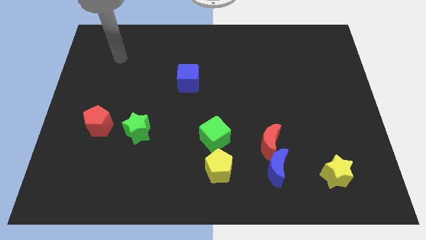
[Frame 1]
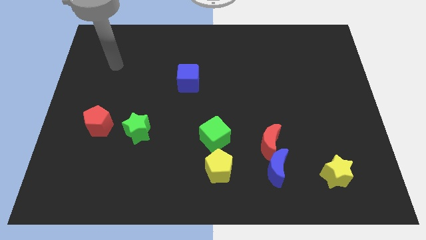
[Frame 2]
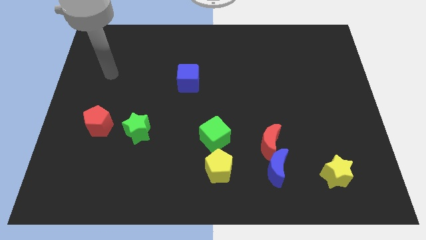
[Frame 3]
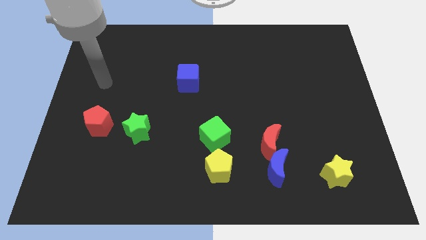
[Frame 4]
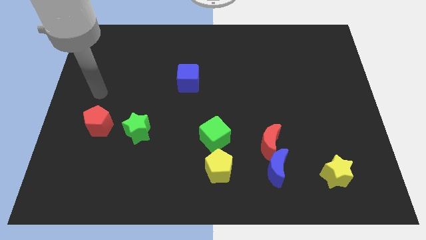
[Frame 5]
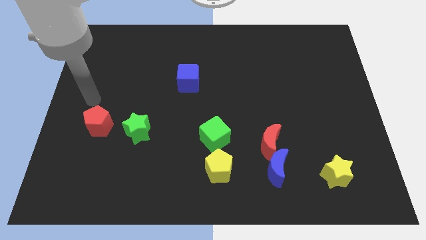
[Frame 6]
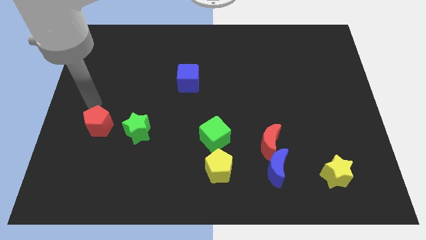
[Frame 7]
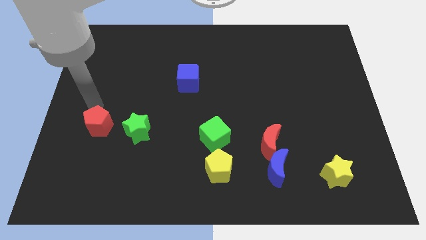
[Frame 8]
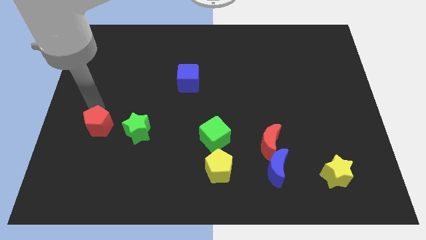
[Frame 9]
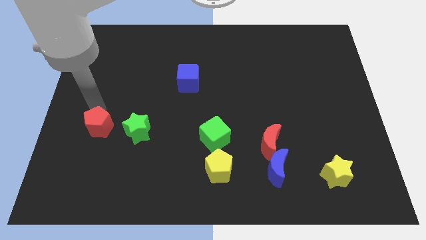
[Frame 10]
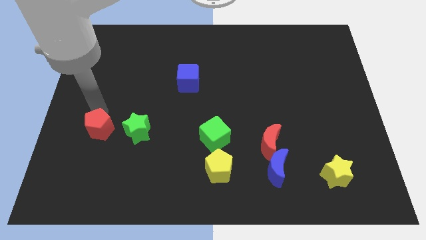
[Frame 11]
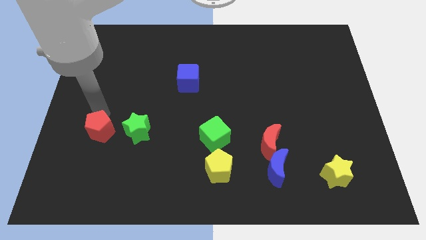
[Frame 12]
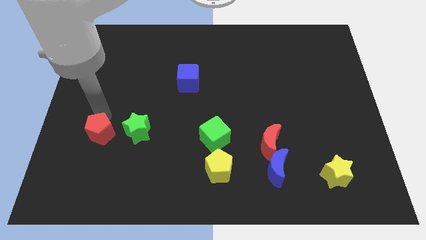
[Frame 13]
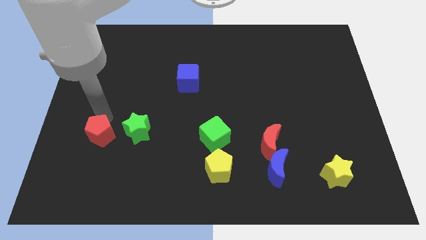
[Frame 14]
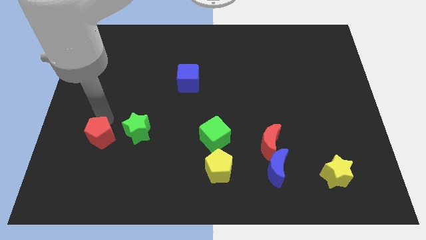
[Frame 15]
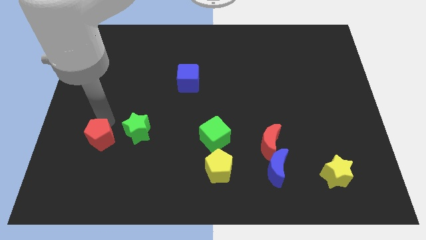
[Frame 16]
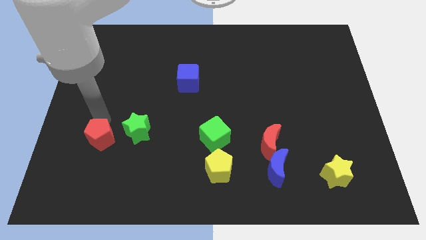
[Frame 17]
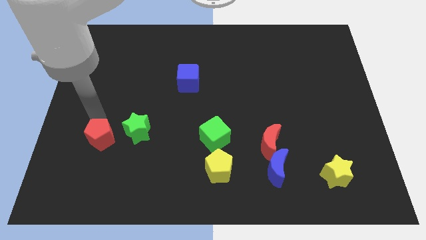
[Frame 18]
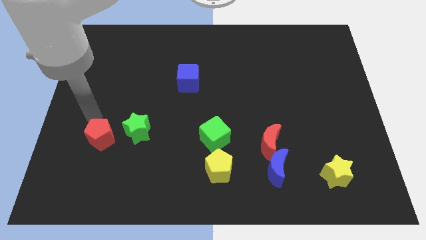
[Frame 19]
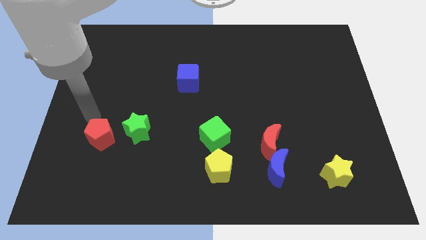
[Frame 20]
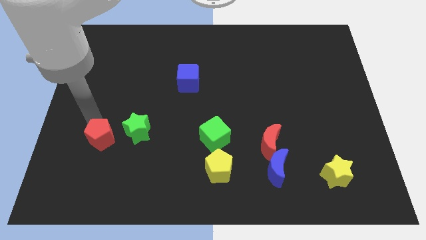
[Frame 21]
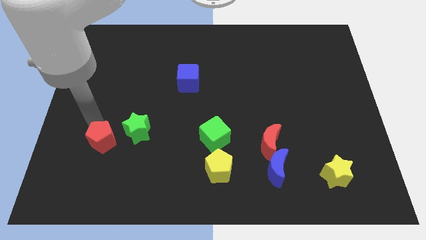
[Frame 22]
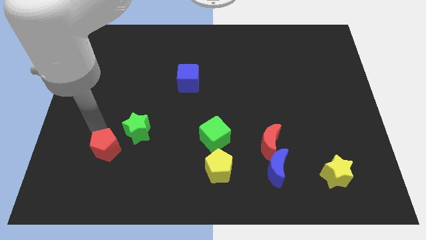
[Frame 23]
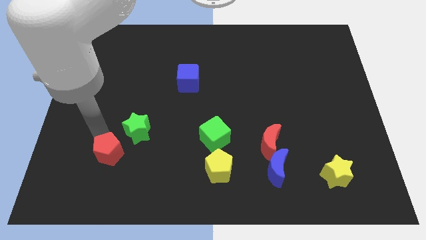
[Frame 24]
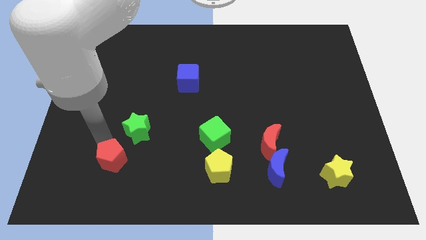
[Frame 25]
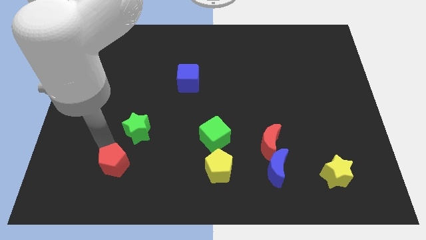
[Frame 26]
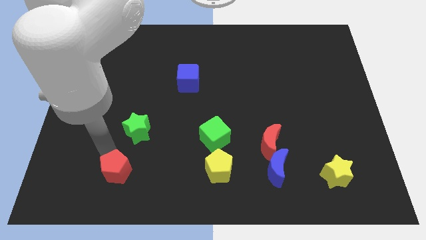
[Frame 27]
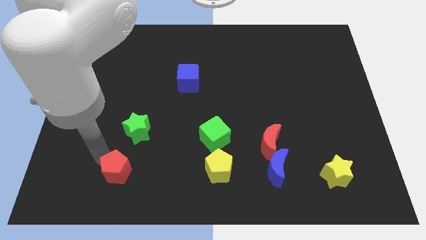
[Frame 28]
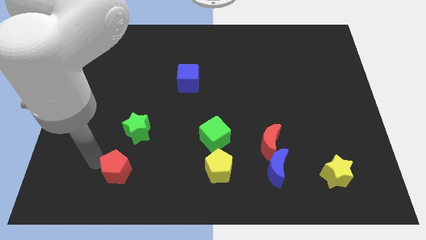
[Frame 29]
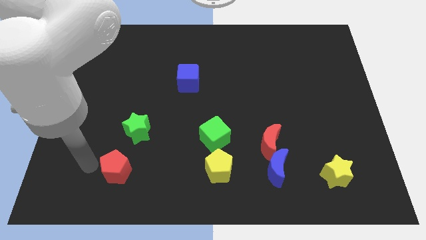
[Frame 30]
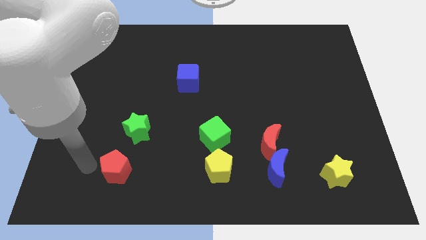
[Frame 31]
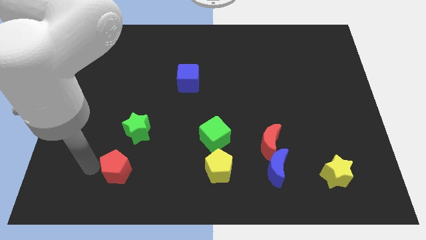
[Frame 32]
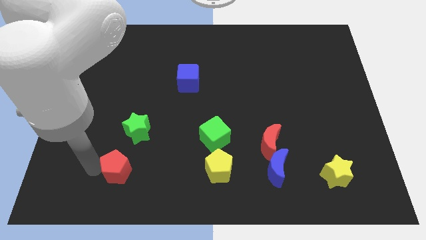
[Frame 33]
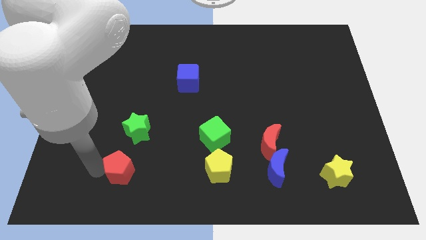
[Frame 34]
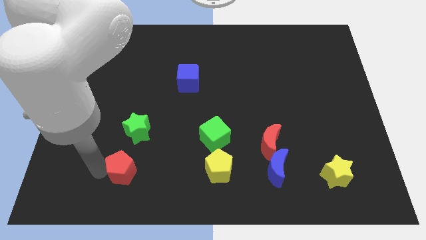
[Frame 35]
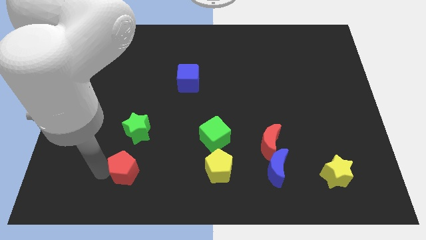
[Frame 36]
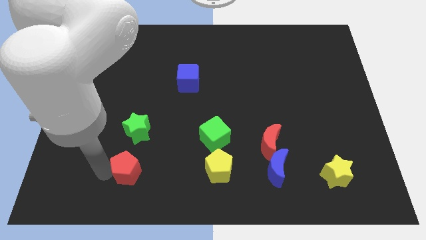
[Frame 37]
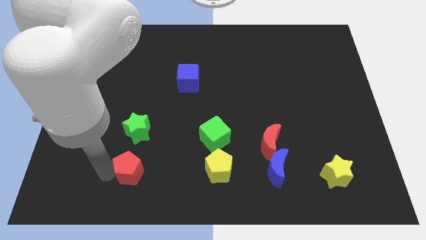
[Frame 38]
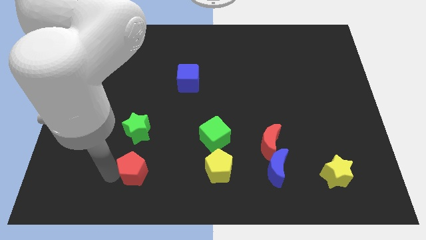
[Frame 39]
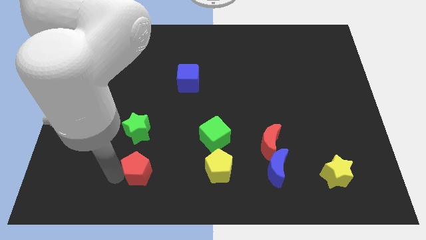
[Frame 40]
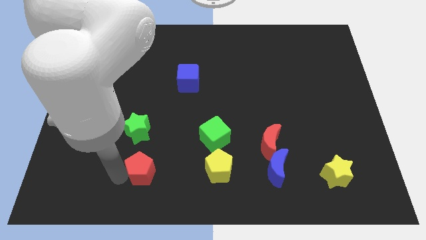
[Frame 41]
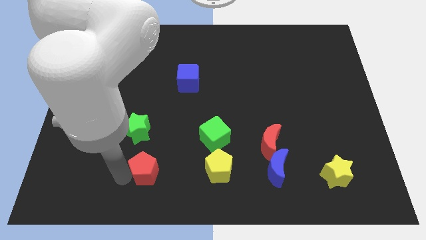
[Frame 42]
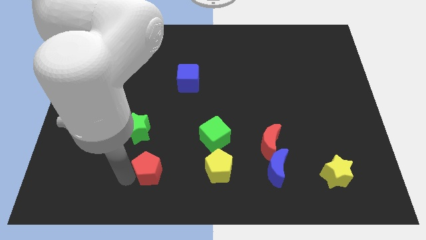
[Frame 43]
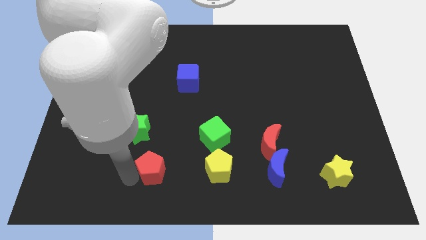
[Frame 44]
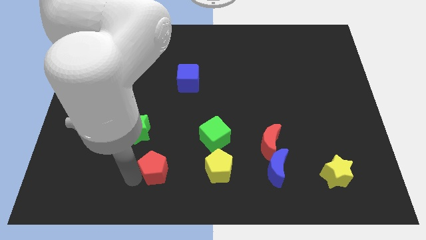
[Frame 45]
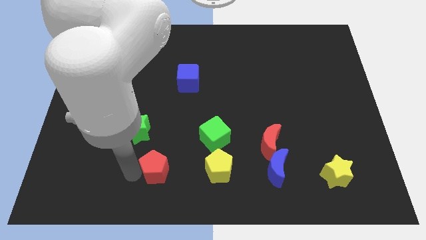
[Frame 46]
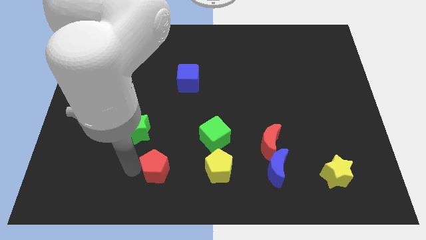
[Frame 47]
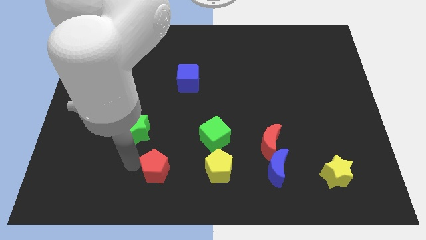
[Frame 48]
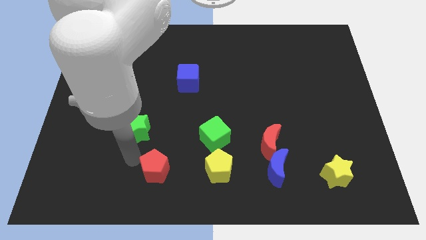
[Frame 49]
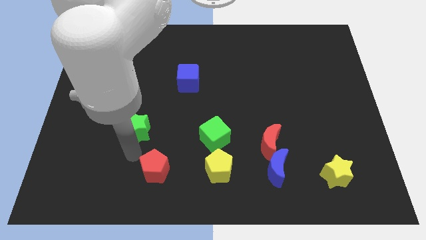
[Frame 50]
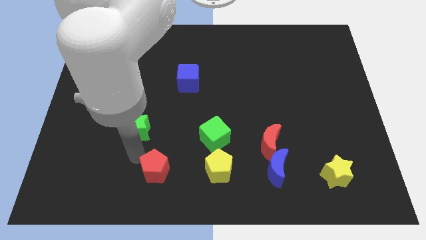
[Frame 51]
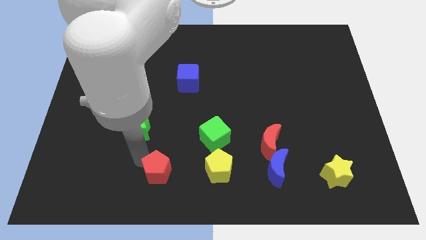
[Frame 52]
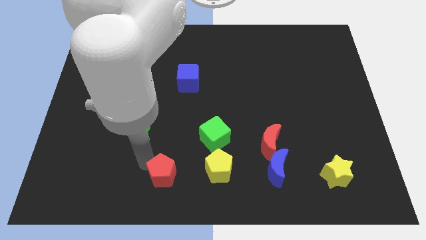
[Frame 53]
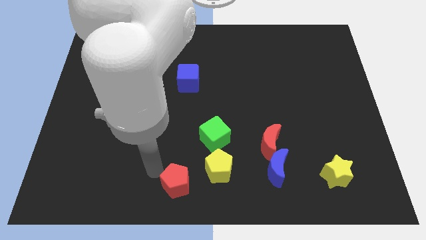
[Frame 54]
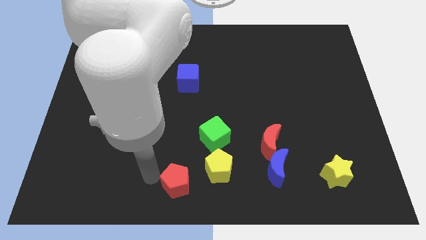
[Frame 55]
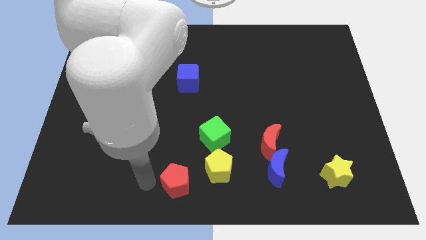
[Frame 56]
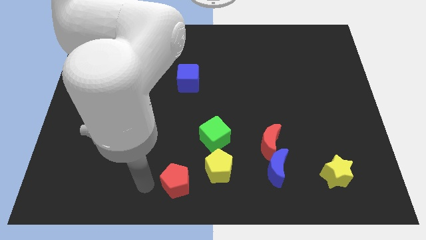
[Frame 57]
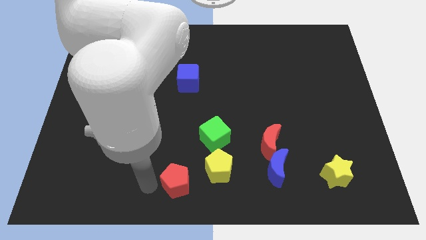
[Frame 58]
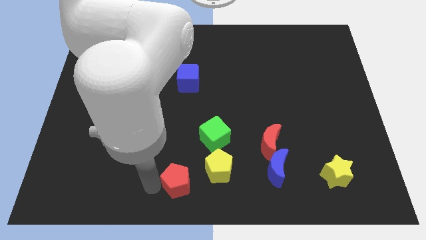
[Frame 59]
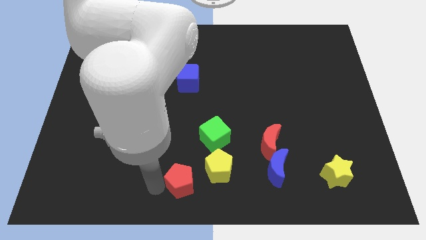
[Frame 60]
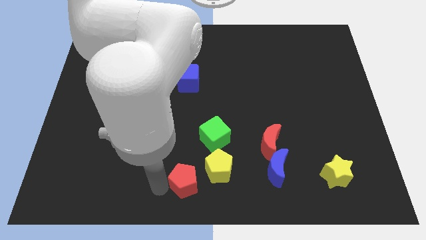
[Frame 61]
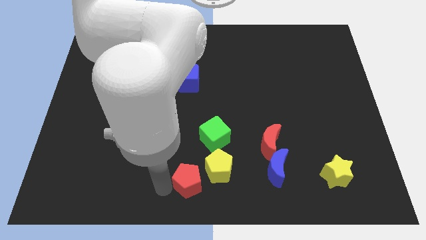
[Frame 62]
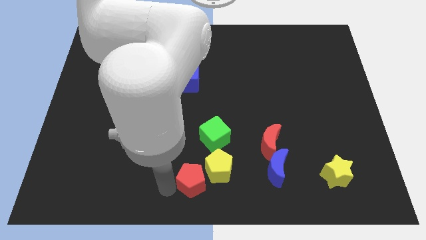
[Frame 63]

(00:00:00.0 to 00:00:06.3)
push the red pentagon to the bottom of the green cube

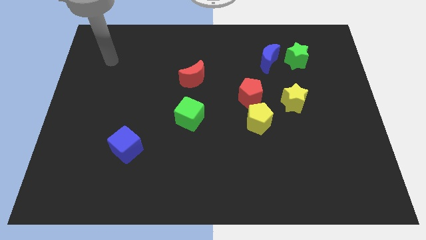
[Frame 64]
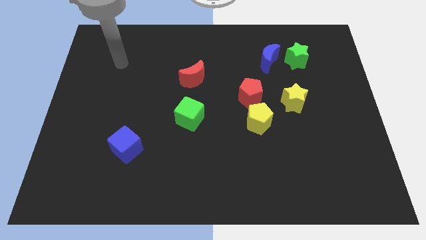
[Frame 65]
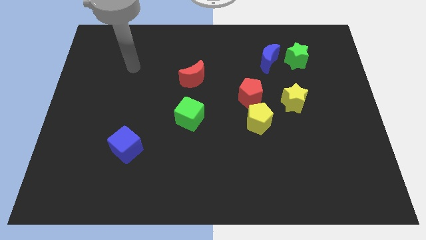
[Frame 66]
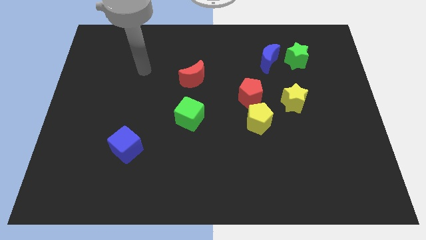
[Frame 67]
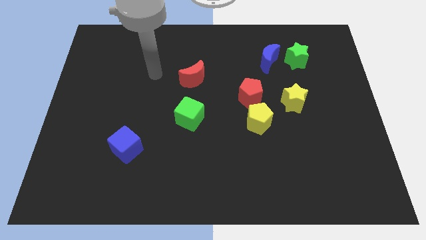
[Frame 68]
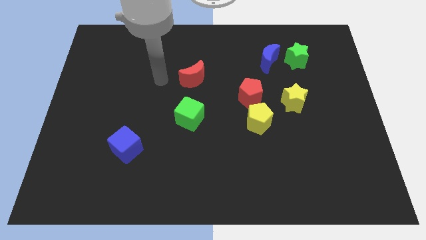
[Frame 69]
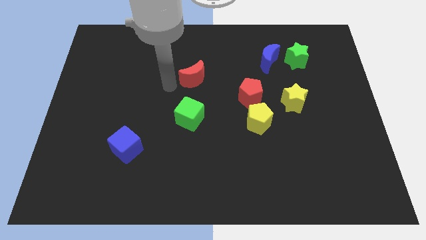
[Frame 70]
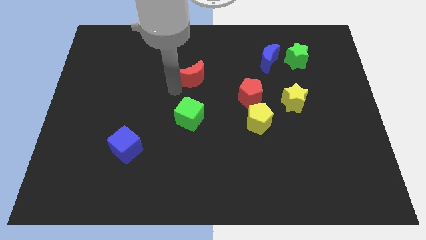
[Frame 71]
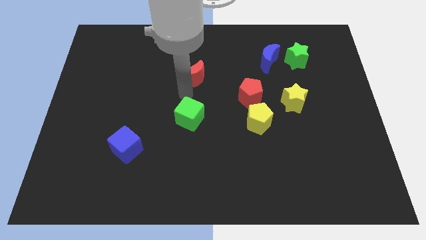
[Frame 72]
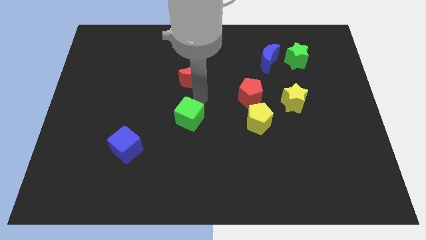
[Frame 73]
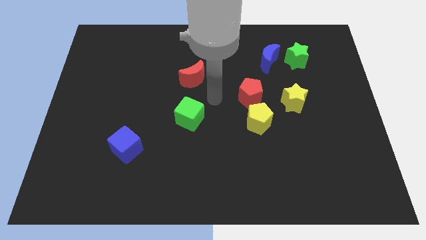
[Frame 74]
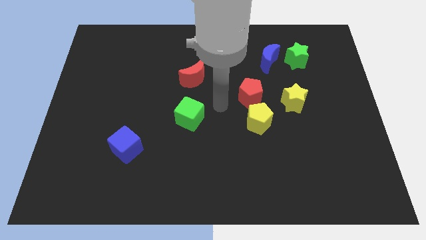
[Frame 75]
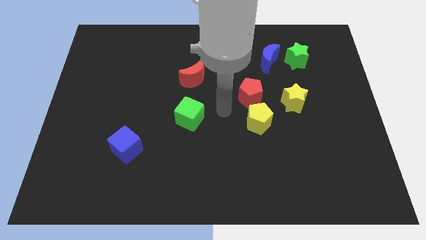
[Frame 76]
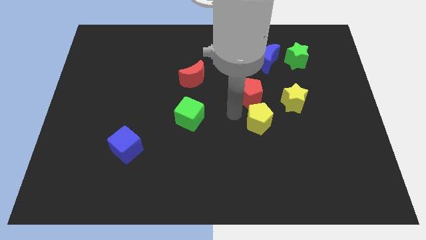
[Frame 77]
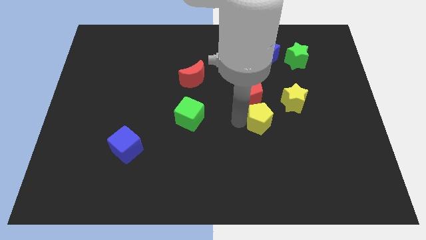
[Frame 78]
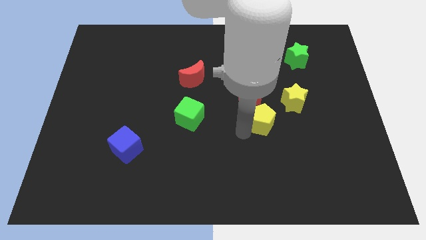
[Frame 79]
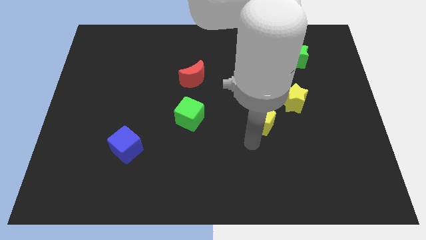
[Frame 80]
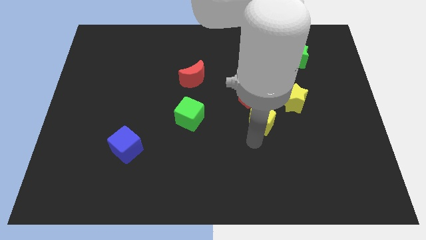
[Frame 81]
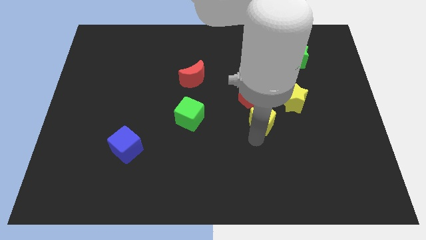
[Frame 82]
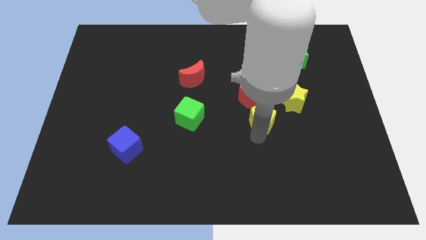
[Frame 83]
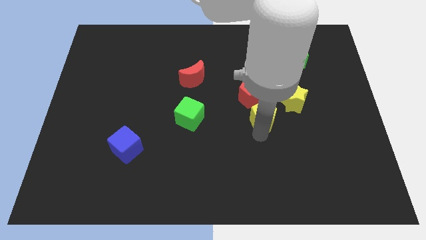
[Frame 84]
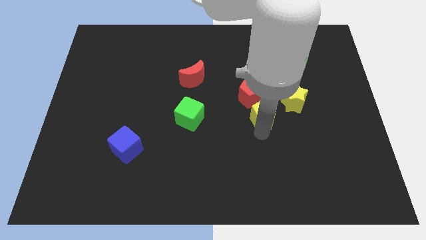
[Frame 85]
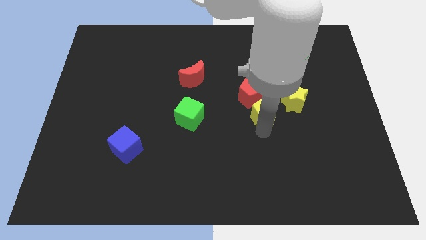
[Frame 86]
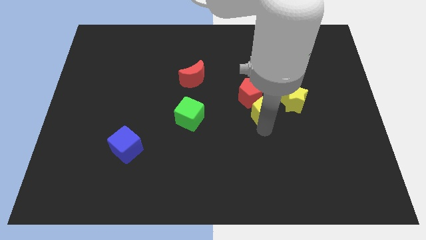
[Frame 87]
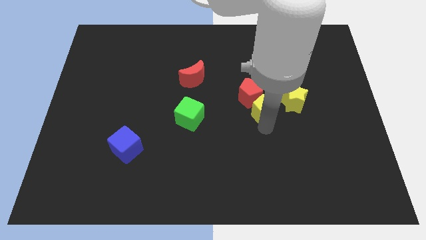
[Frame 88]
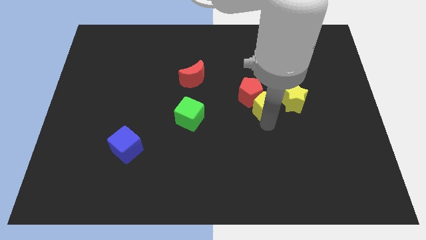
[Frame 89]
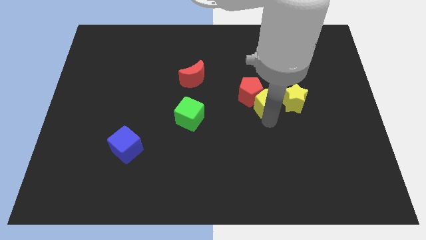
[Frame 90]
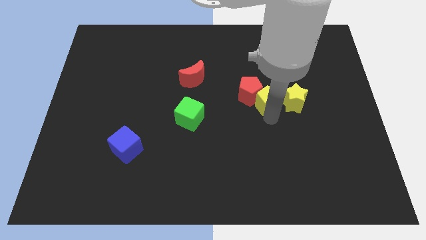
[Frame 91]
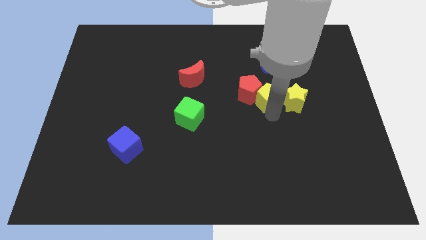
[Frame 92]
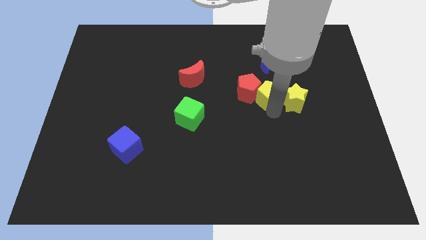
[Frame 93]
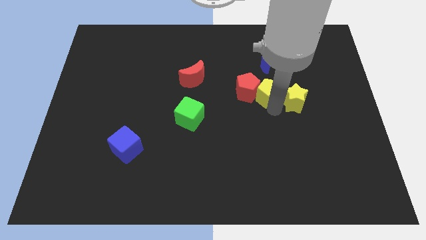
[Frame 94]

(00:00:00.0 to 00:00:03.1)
move the yellow pentagon to the top right side of the red pentagon
